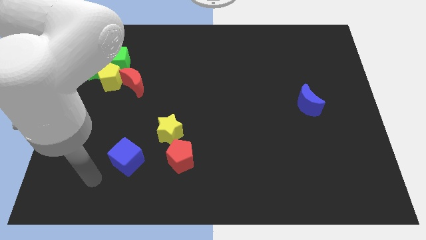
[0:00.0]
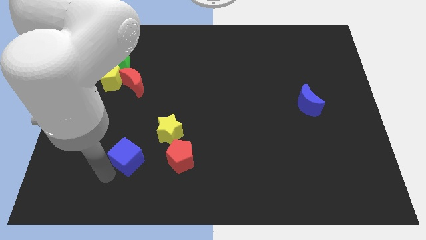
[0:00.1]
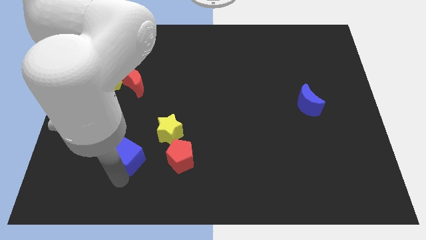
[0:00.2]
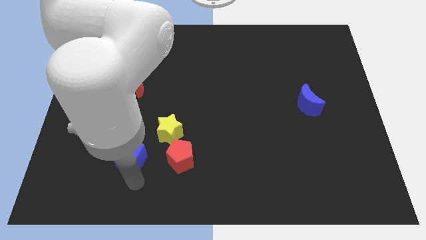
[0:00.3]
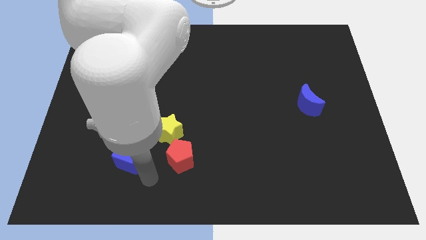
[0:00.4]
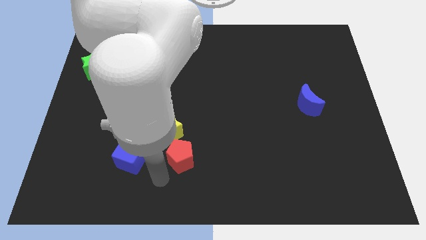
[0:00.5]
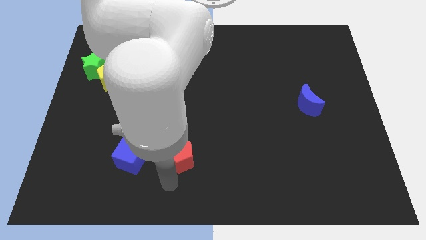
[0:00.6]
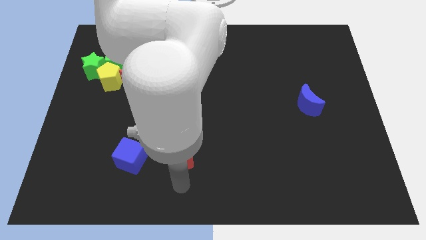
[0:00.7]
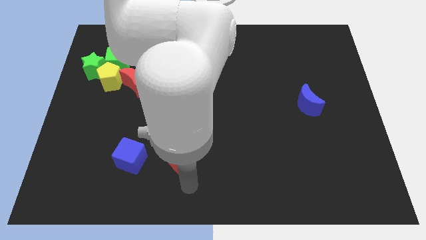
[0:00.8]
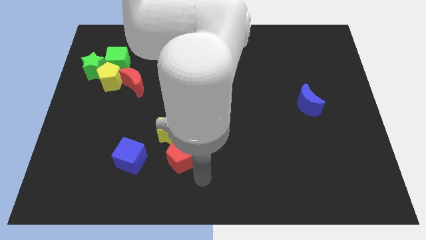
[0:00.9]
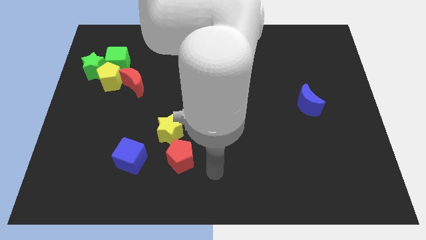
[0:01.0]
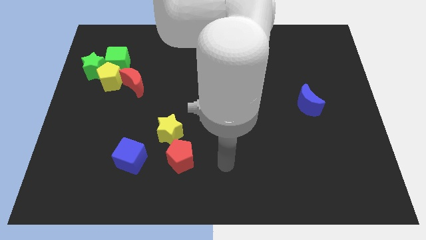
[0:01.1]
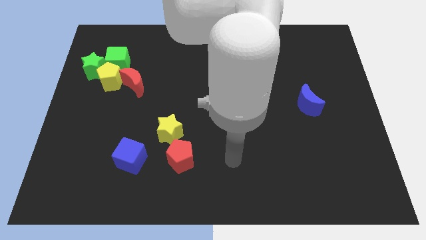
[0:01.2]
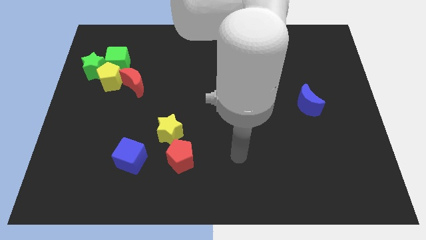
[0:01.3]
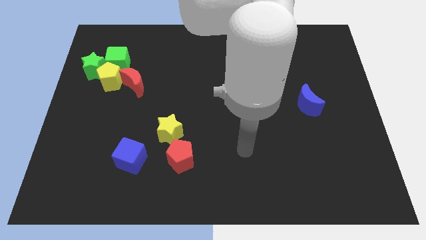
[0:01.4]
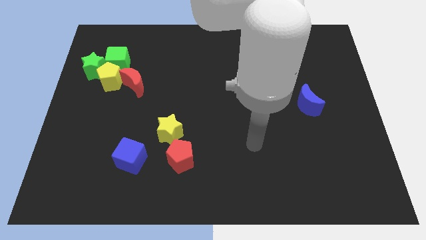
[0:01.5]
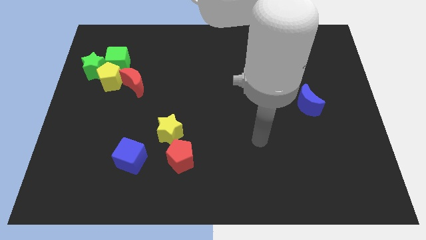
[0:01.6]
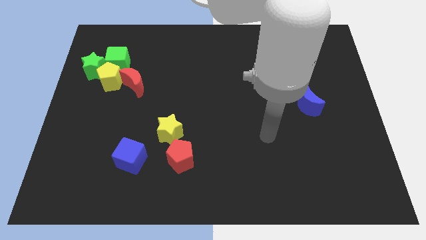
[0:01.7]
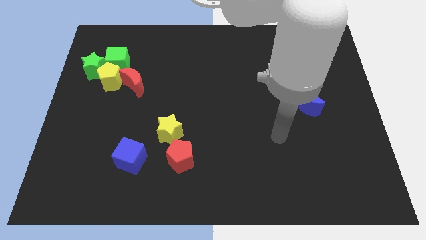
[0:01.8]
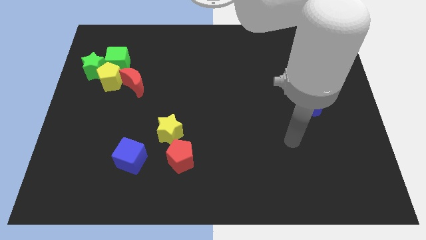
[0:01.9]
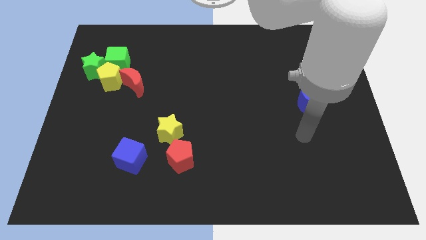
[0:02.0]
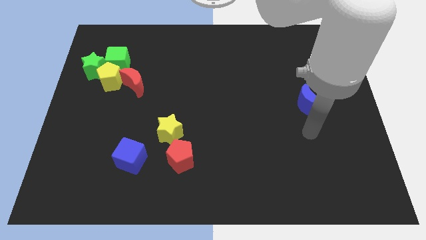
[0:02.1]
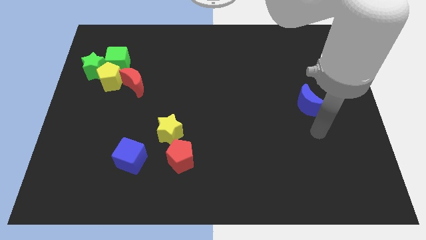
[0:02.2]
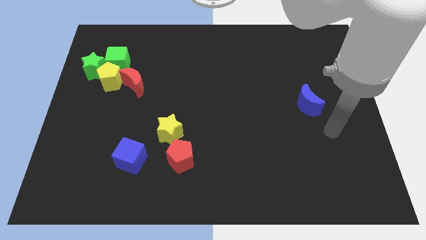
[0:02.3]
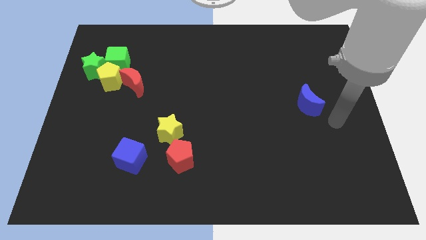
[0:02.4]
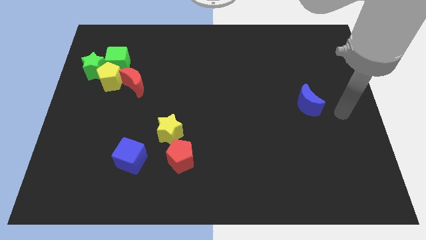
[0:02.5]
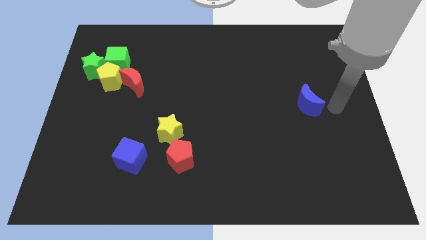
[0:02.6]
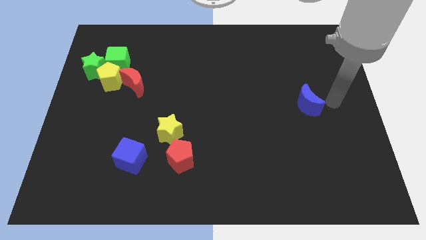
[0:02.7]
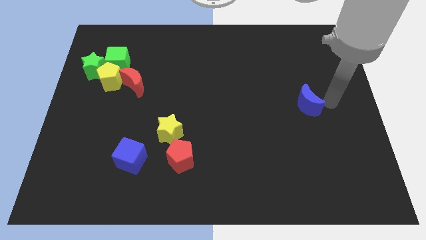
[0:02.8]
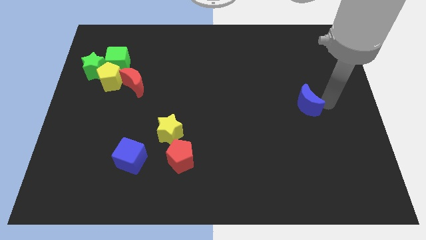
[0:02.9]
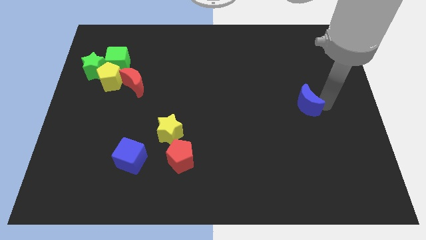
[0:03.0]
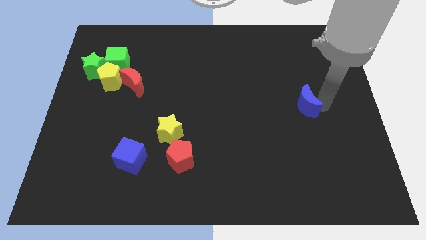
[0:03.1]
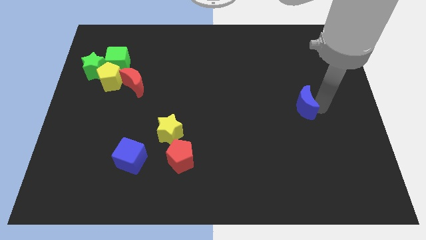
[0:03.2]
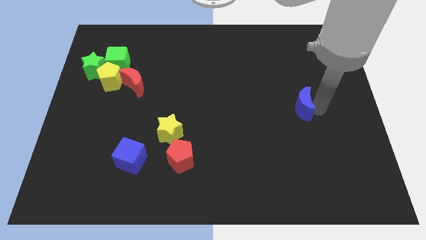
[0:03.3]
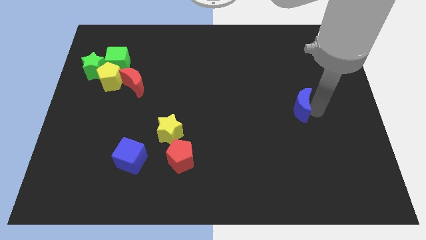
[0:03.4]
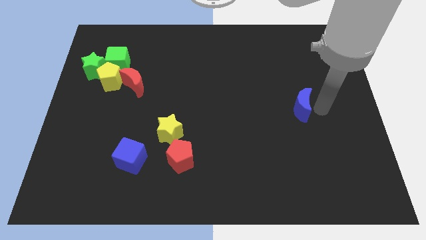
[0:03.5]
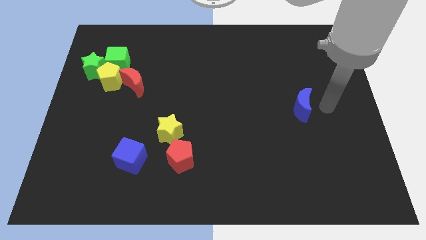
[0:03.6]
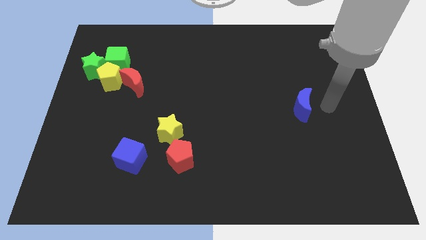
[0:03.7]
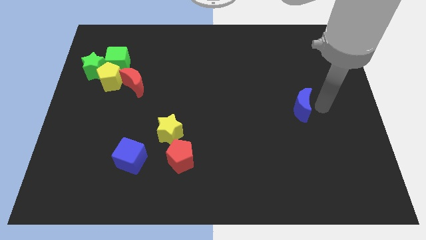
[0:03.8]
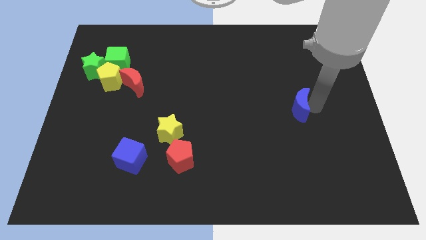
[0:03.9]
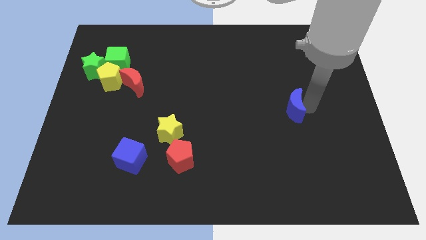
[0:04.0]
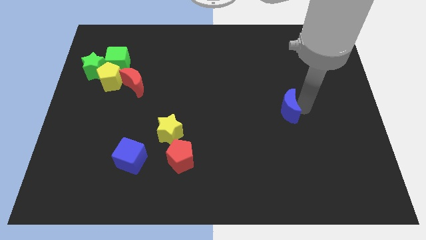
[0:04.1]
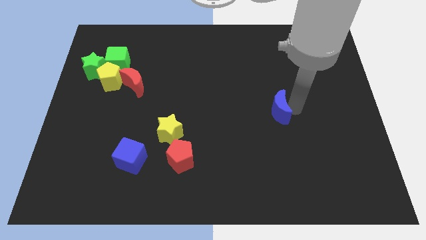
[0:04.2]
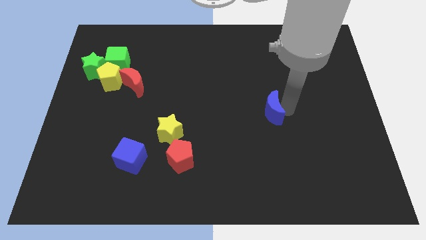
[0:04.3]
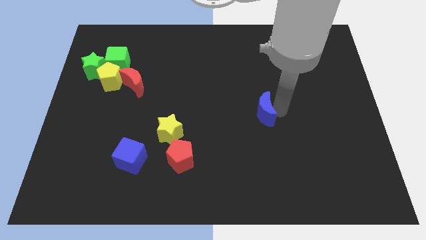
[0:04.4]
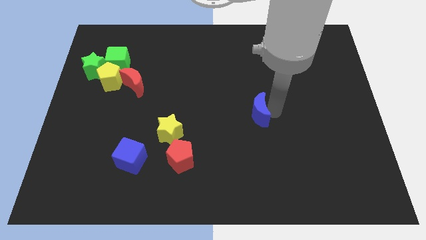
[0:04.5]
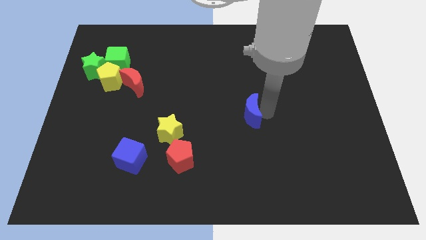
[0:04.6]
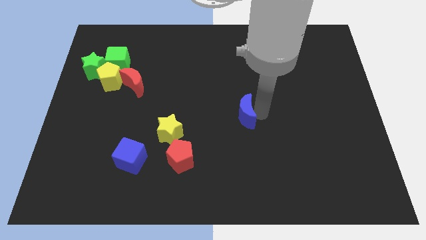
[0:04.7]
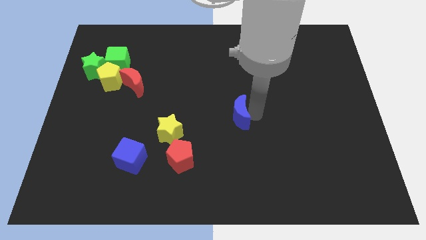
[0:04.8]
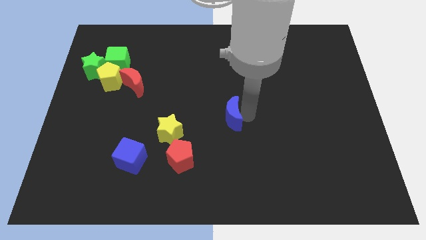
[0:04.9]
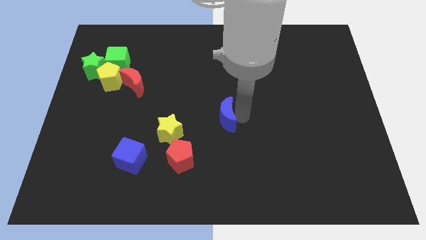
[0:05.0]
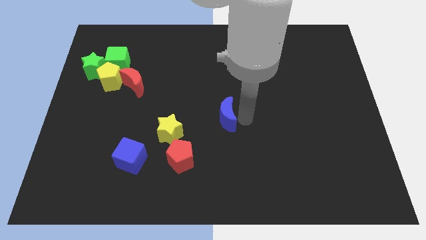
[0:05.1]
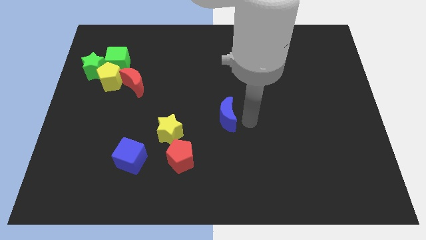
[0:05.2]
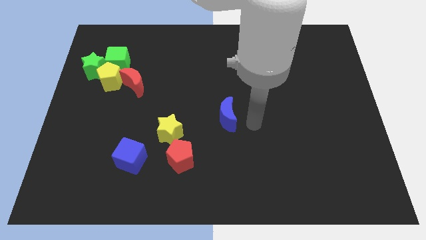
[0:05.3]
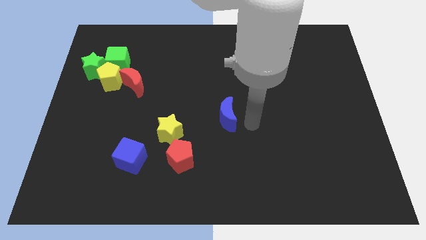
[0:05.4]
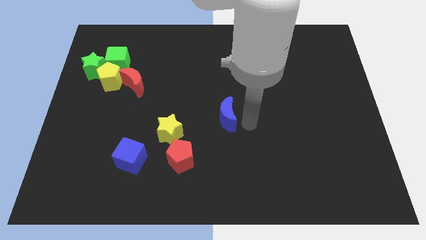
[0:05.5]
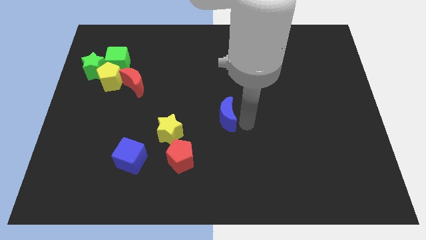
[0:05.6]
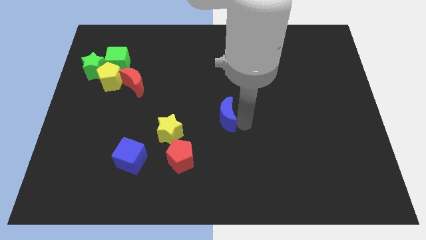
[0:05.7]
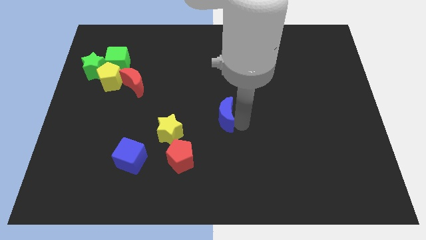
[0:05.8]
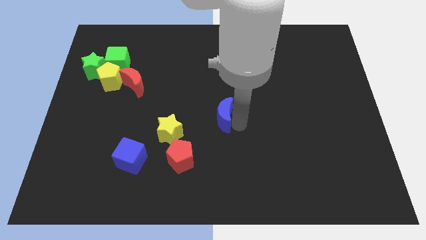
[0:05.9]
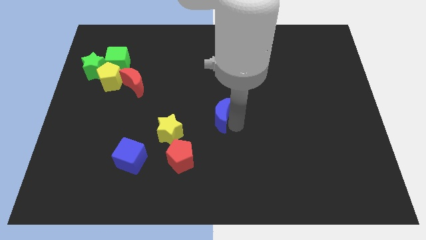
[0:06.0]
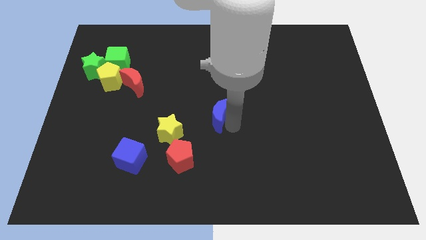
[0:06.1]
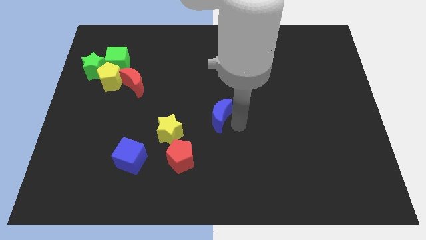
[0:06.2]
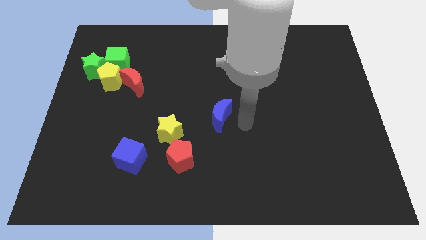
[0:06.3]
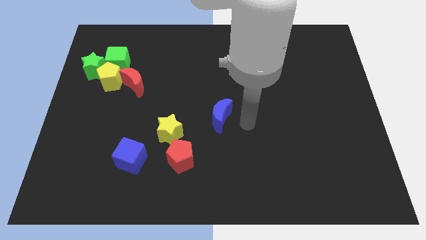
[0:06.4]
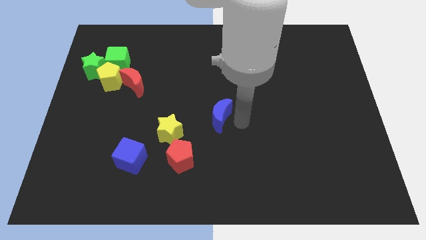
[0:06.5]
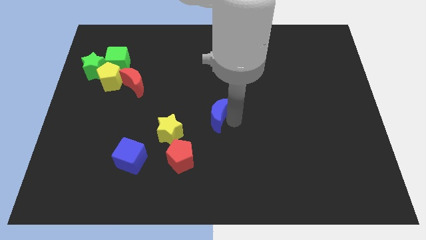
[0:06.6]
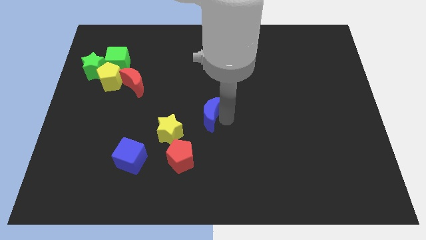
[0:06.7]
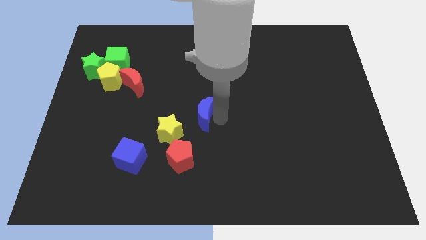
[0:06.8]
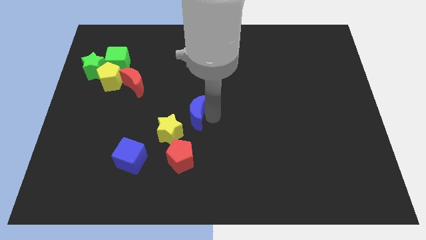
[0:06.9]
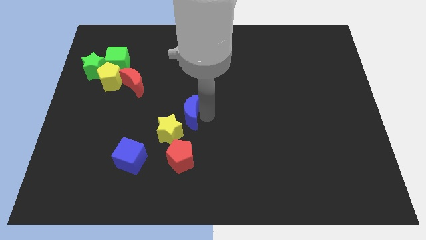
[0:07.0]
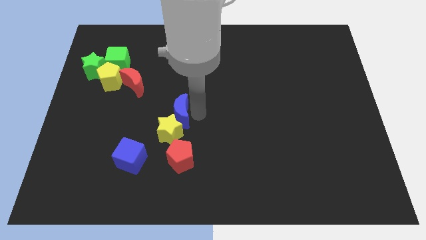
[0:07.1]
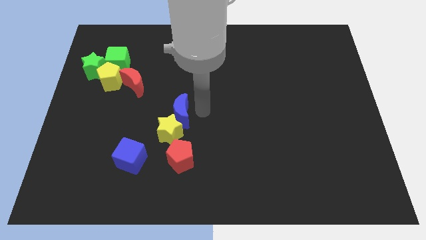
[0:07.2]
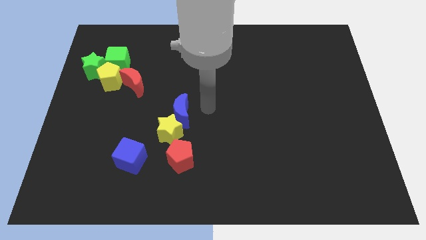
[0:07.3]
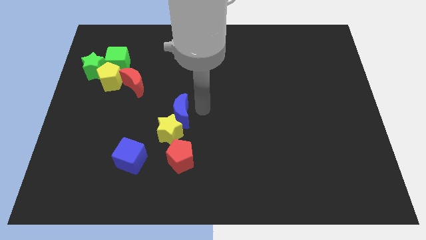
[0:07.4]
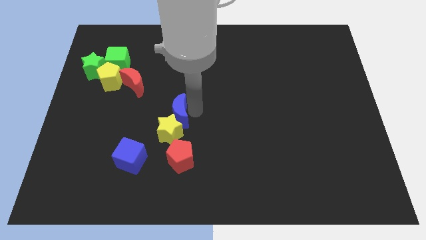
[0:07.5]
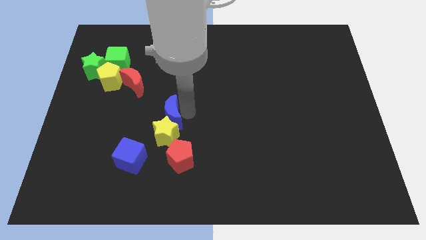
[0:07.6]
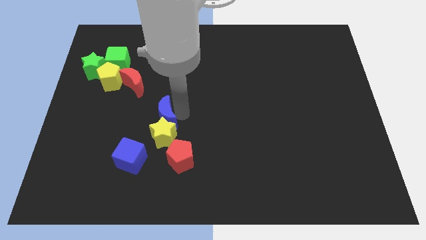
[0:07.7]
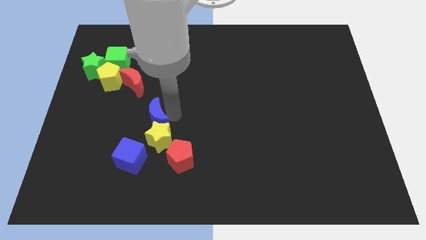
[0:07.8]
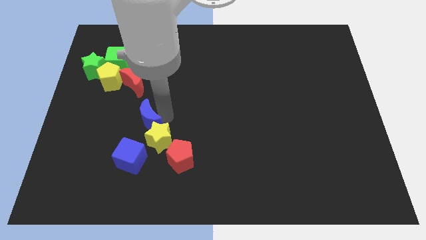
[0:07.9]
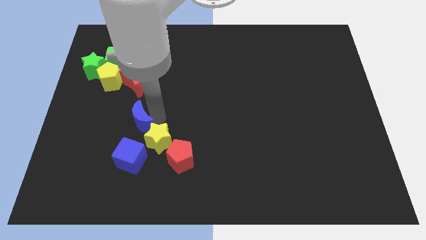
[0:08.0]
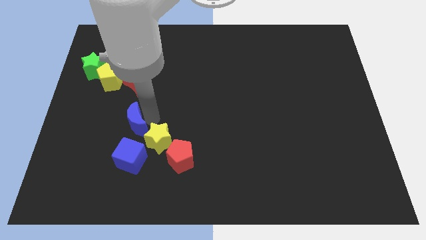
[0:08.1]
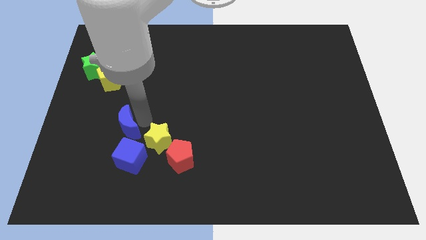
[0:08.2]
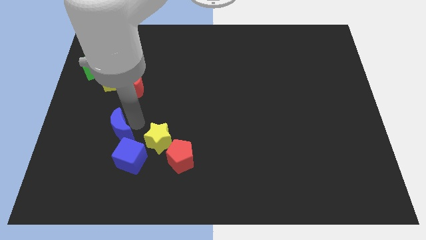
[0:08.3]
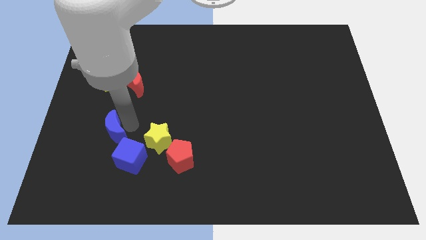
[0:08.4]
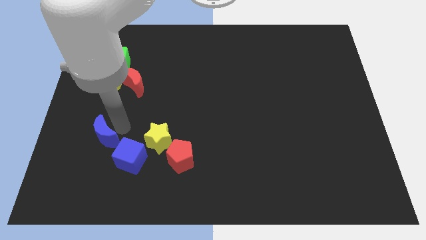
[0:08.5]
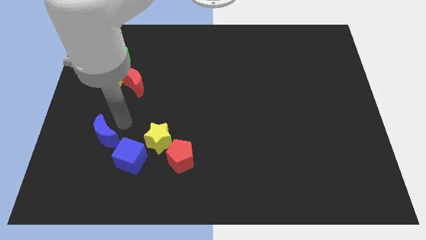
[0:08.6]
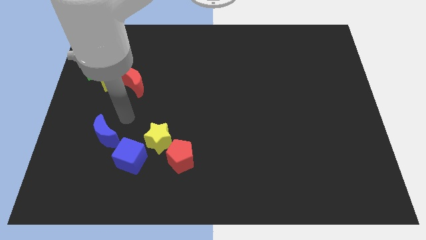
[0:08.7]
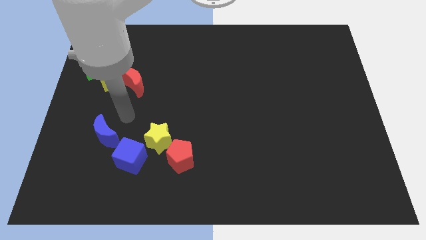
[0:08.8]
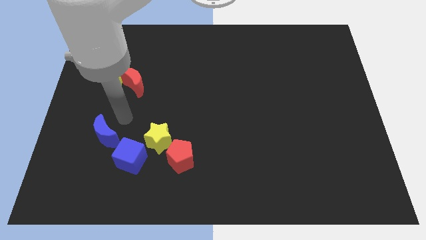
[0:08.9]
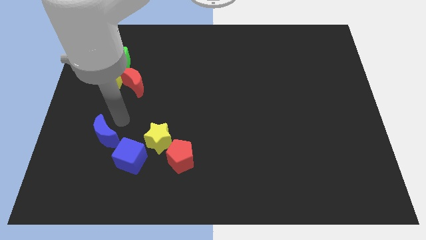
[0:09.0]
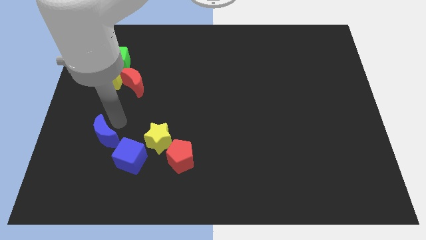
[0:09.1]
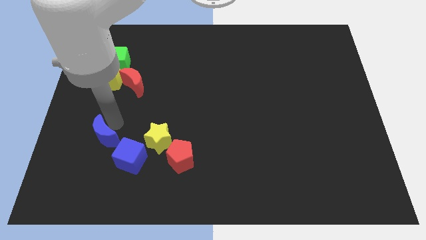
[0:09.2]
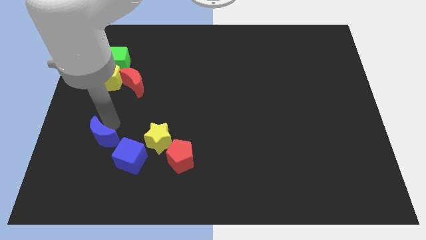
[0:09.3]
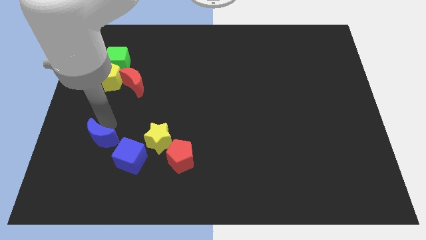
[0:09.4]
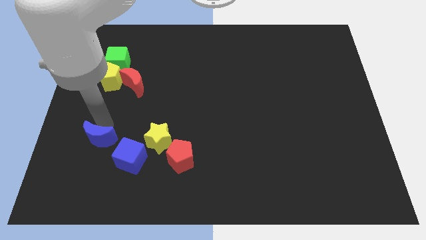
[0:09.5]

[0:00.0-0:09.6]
move the blue moon to the left side of the blue cube
